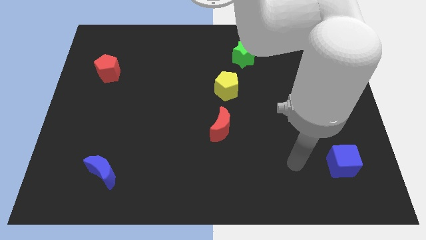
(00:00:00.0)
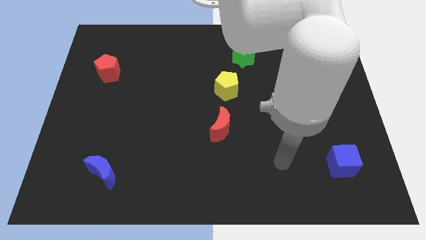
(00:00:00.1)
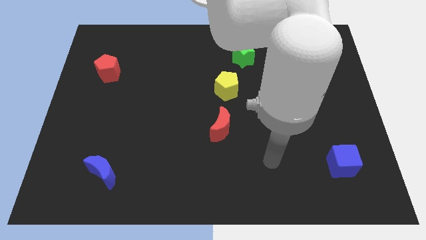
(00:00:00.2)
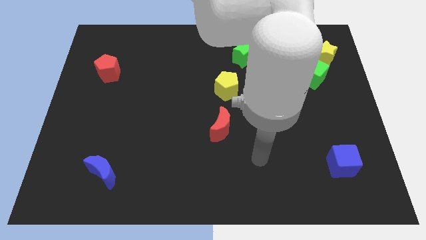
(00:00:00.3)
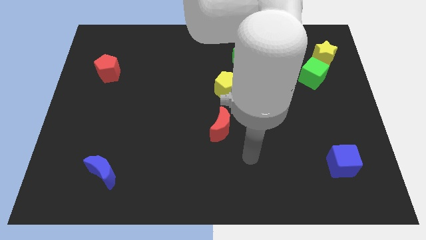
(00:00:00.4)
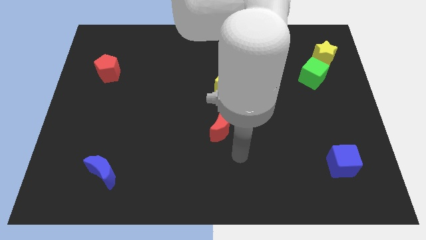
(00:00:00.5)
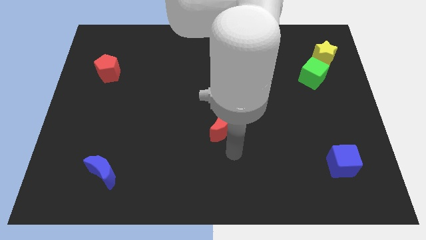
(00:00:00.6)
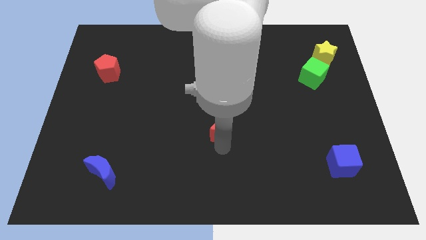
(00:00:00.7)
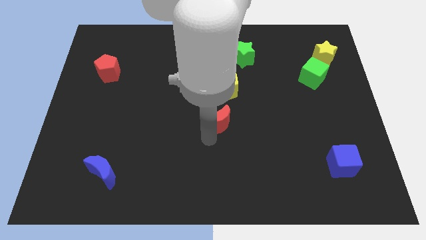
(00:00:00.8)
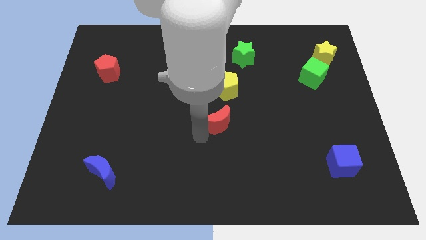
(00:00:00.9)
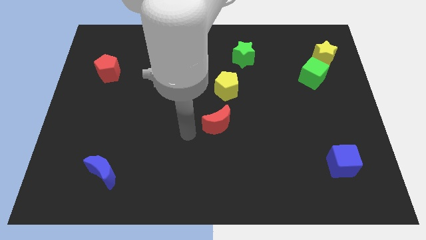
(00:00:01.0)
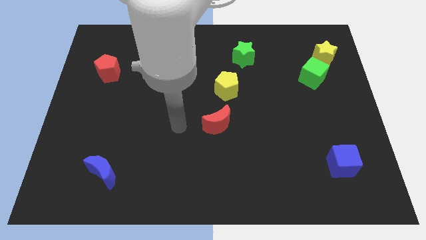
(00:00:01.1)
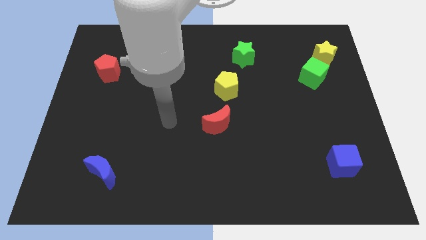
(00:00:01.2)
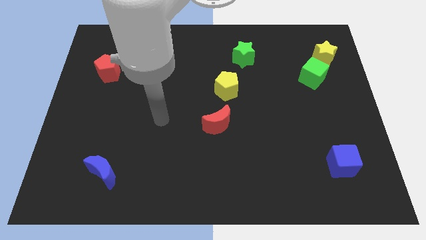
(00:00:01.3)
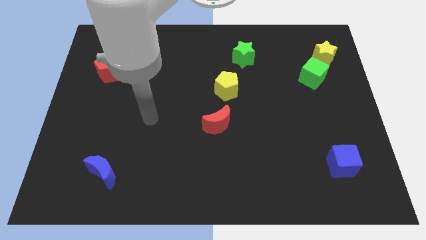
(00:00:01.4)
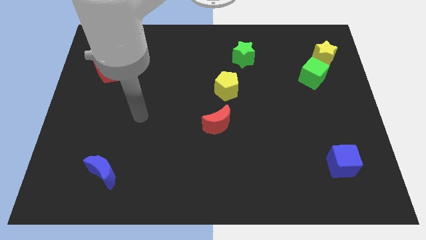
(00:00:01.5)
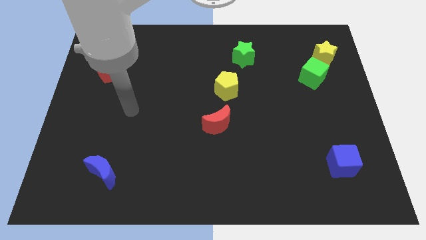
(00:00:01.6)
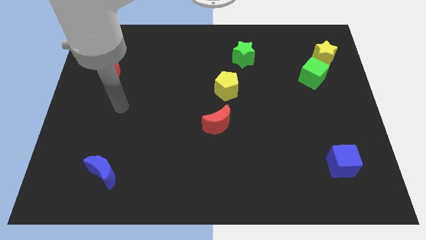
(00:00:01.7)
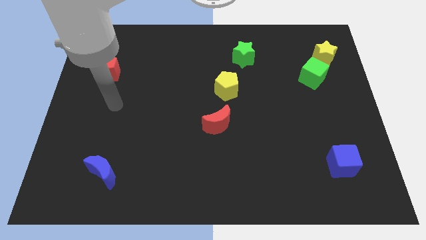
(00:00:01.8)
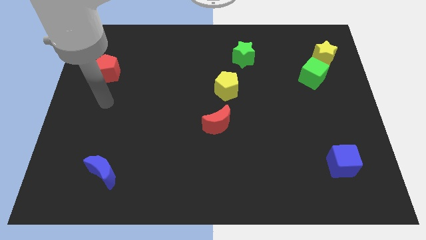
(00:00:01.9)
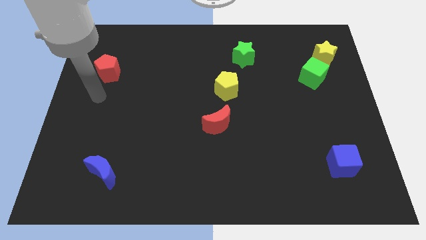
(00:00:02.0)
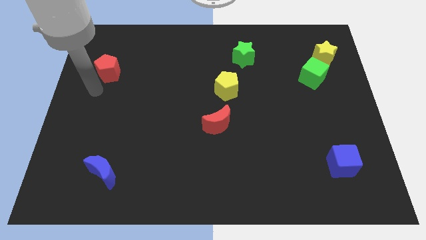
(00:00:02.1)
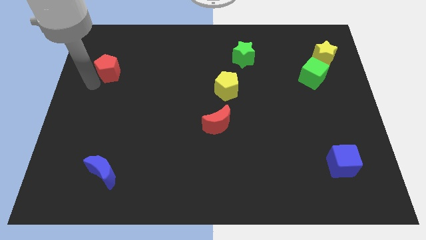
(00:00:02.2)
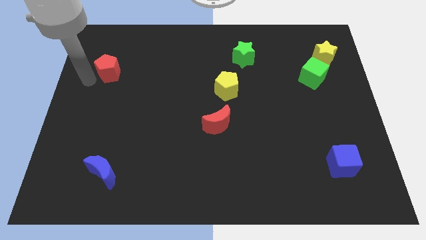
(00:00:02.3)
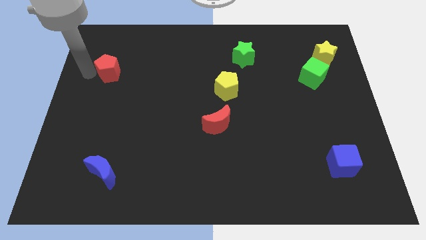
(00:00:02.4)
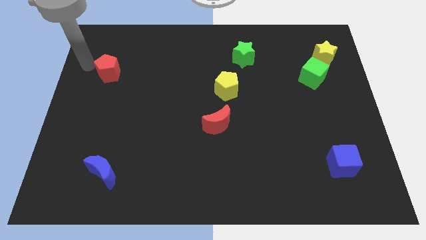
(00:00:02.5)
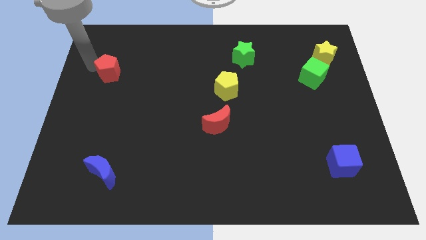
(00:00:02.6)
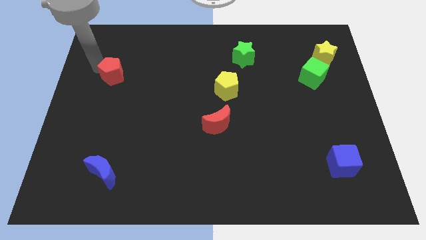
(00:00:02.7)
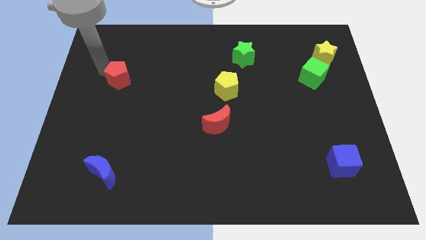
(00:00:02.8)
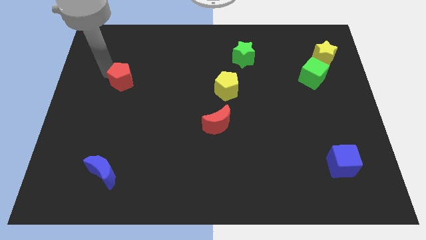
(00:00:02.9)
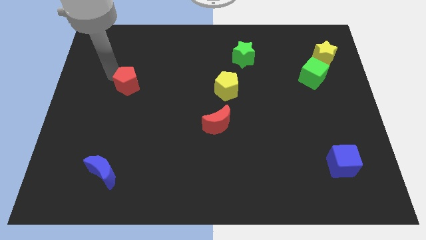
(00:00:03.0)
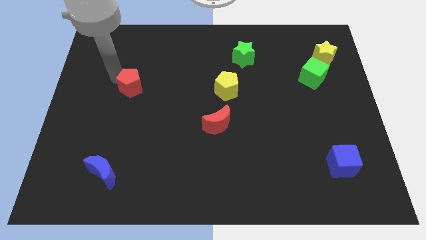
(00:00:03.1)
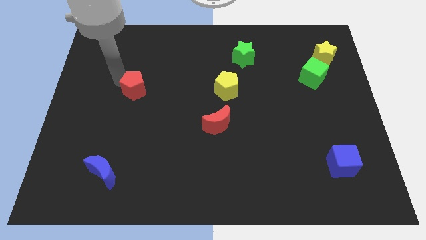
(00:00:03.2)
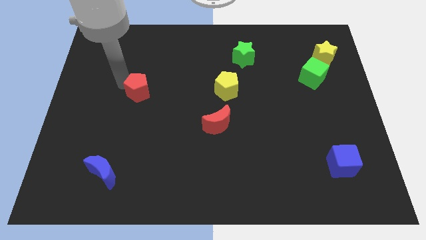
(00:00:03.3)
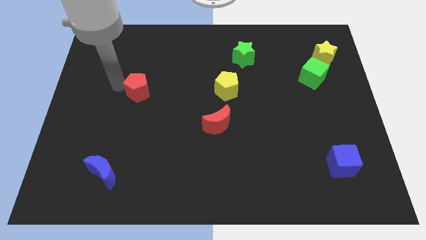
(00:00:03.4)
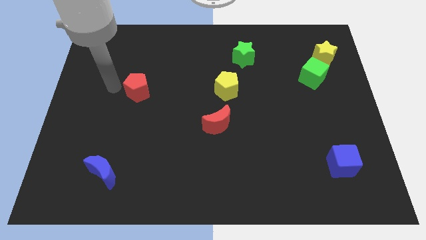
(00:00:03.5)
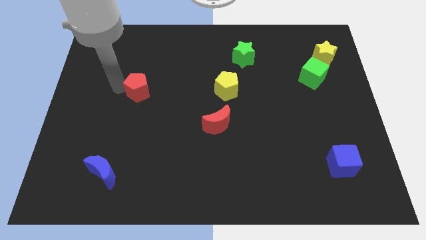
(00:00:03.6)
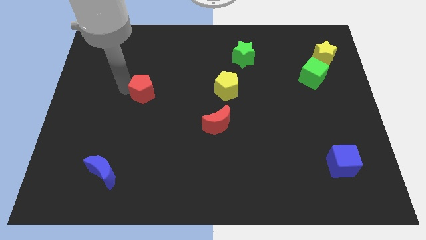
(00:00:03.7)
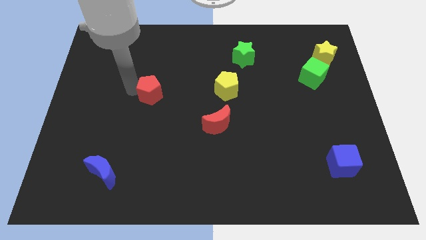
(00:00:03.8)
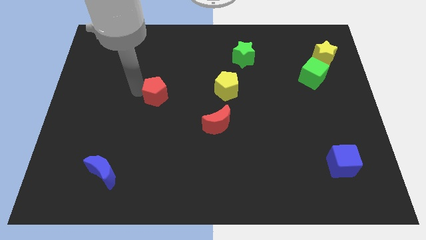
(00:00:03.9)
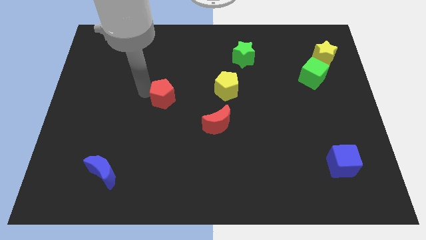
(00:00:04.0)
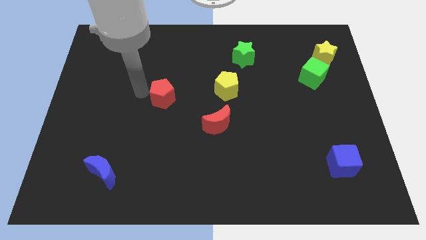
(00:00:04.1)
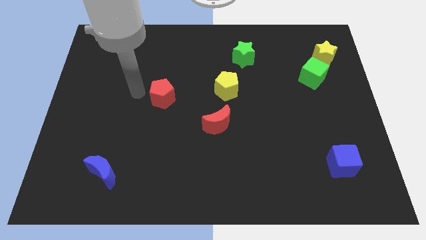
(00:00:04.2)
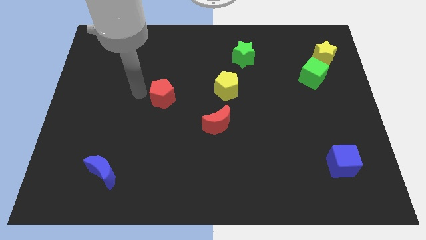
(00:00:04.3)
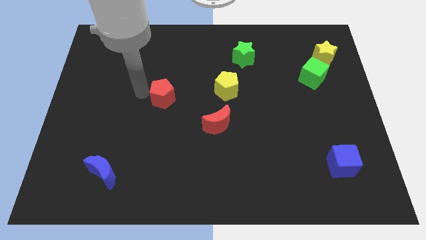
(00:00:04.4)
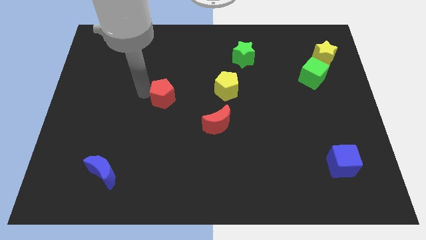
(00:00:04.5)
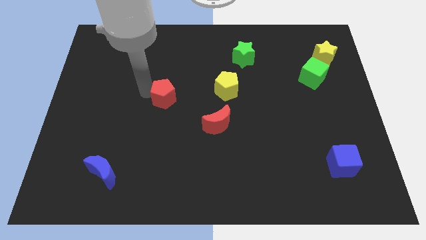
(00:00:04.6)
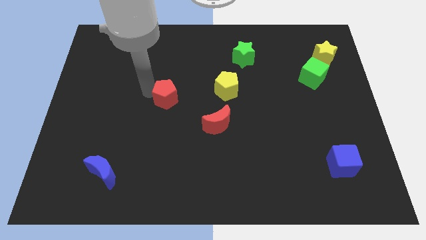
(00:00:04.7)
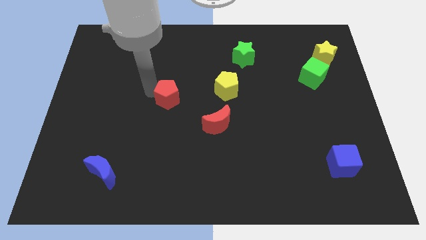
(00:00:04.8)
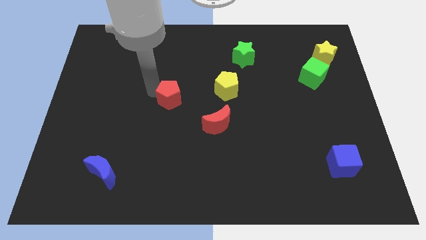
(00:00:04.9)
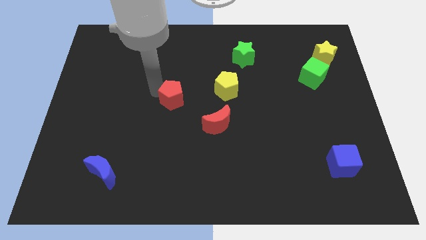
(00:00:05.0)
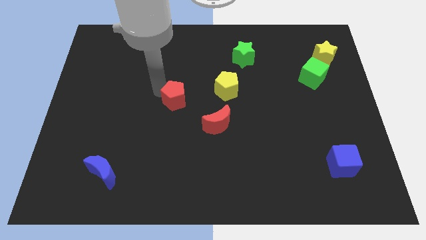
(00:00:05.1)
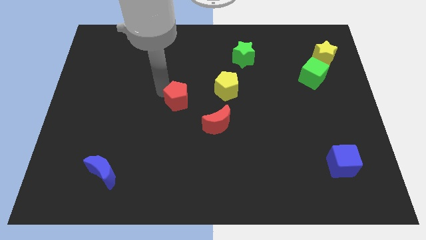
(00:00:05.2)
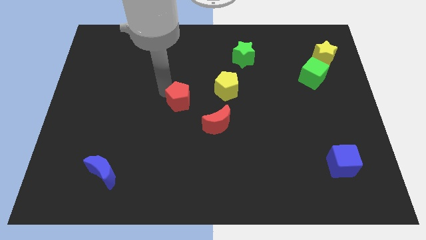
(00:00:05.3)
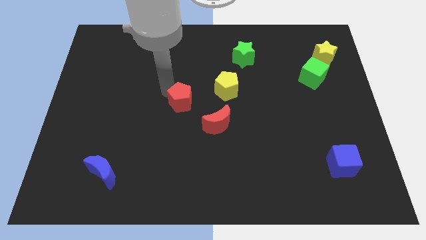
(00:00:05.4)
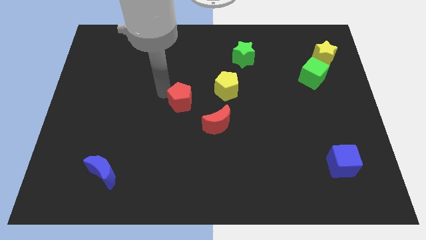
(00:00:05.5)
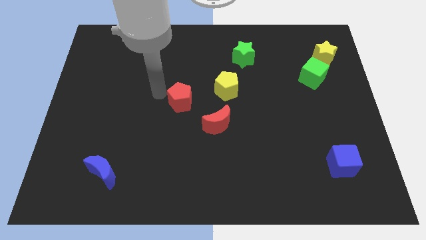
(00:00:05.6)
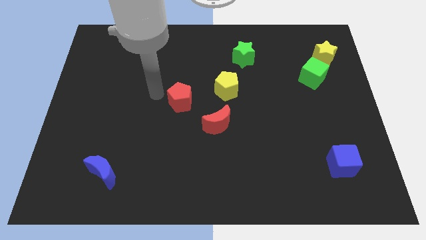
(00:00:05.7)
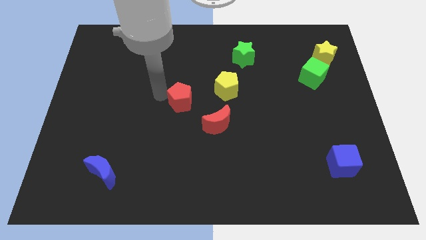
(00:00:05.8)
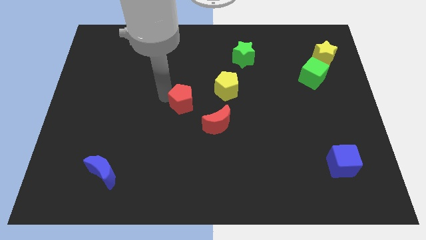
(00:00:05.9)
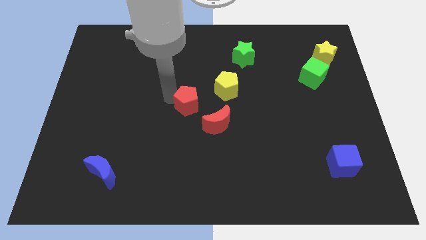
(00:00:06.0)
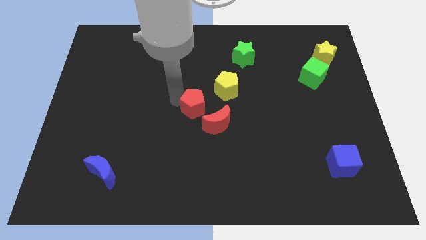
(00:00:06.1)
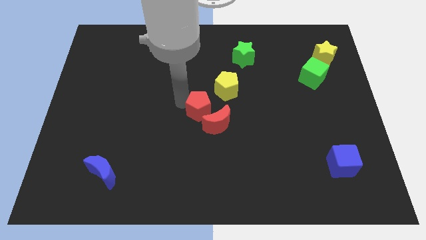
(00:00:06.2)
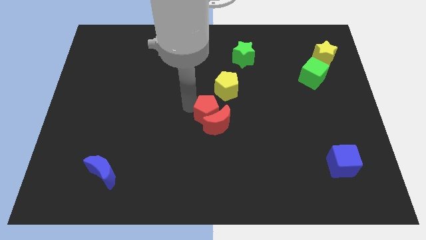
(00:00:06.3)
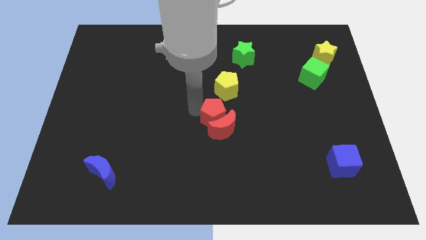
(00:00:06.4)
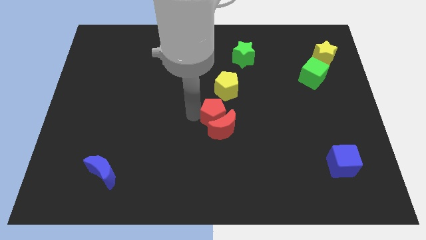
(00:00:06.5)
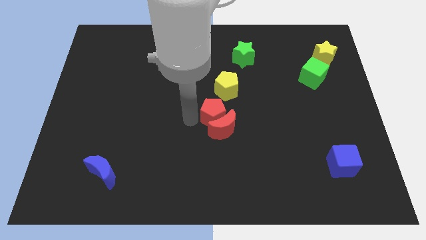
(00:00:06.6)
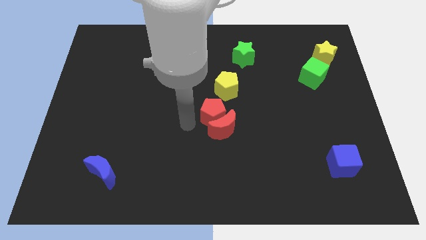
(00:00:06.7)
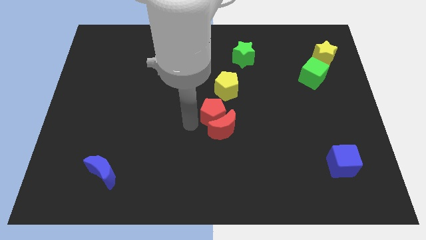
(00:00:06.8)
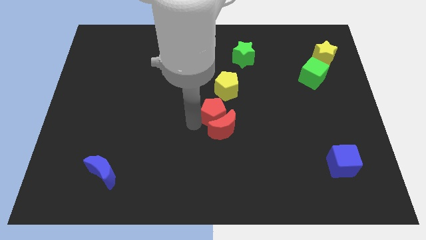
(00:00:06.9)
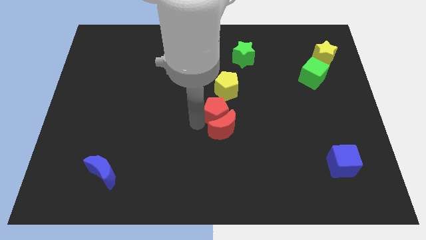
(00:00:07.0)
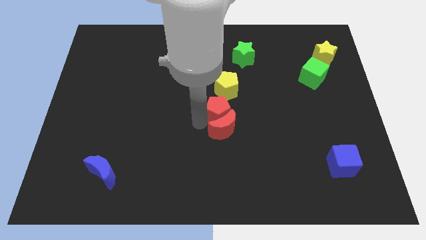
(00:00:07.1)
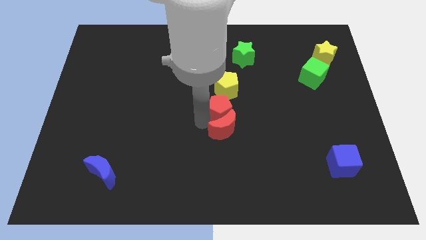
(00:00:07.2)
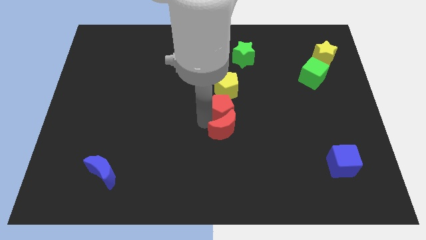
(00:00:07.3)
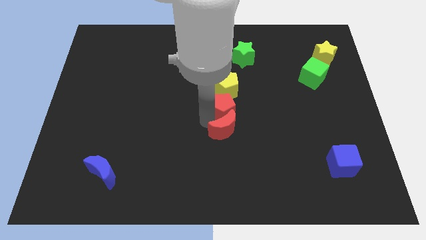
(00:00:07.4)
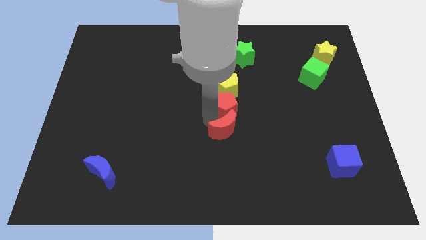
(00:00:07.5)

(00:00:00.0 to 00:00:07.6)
move the red pentagon to the bottom right side of the yellow pentagon
